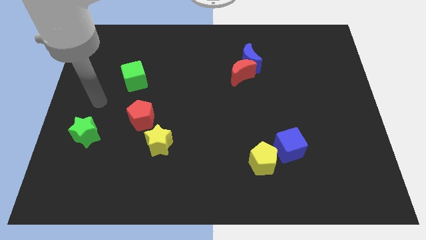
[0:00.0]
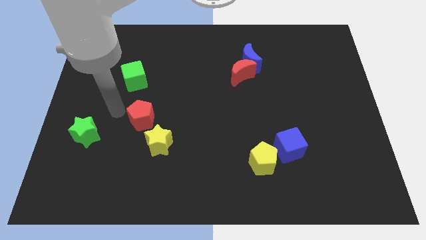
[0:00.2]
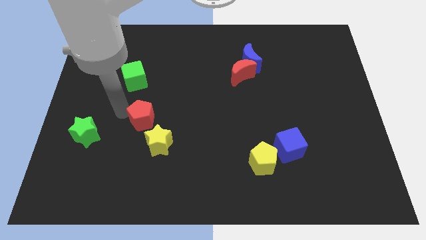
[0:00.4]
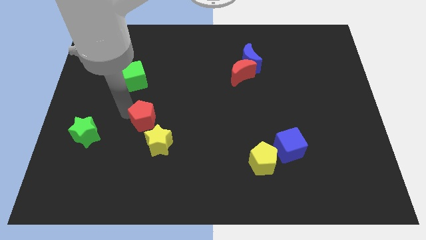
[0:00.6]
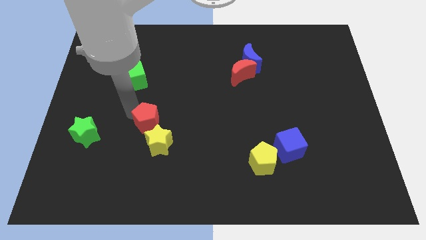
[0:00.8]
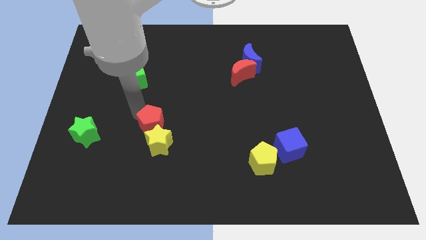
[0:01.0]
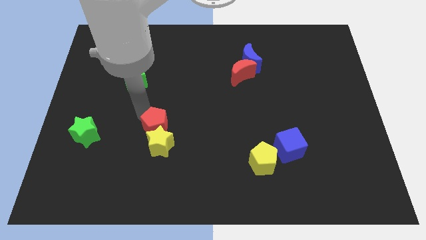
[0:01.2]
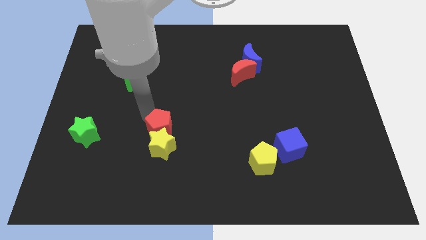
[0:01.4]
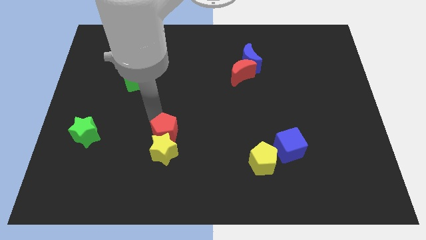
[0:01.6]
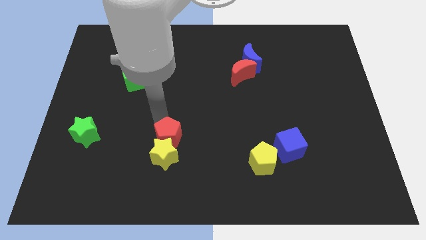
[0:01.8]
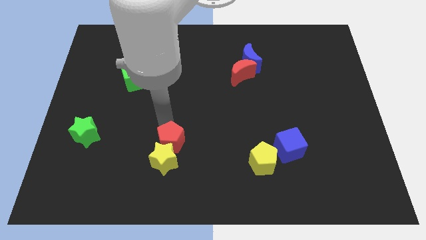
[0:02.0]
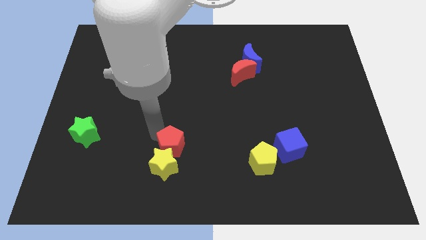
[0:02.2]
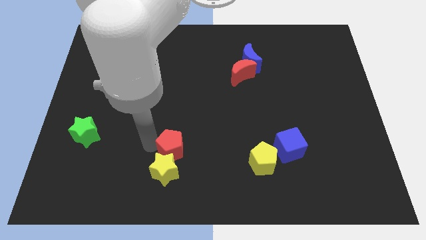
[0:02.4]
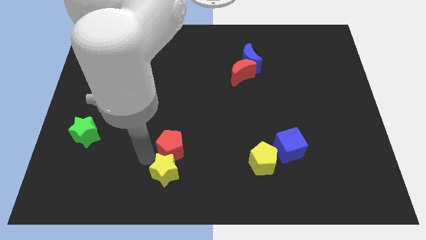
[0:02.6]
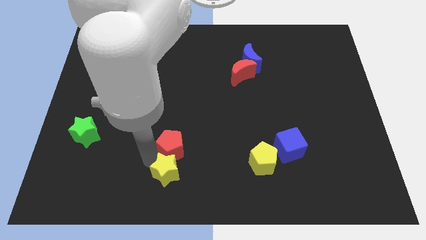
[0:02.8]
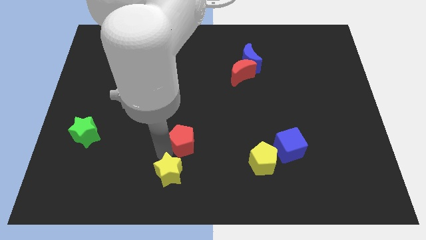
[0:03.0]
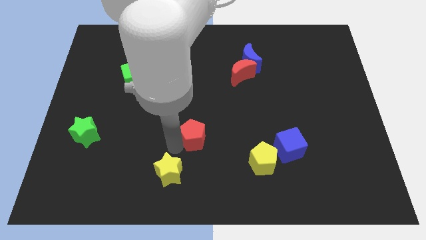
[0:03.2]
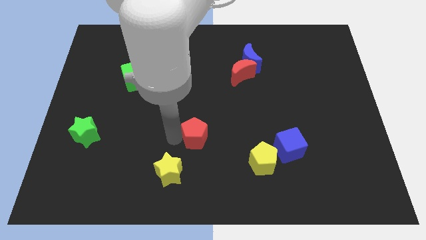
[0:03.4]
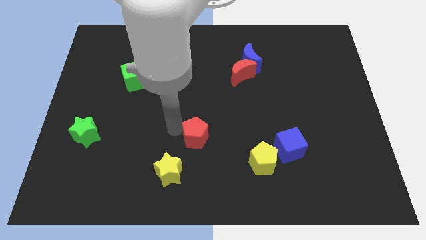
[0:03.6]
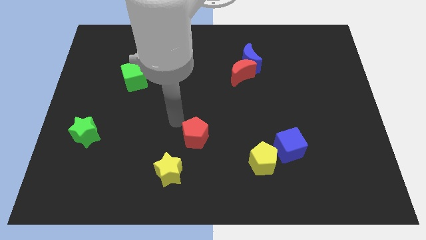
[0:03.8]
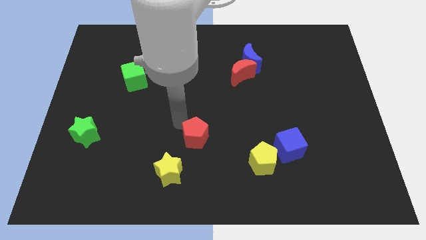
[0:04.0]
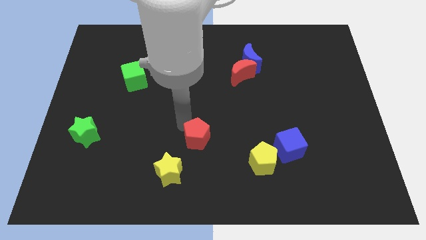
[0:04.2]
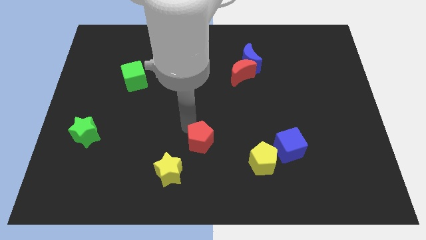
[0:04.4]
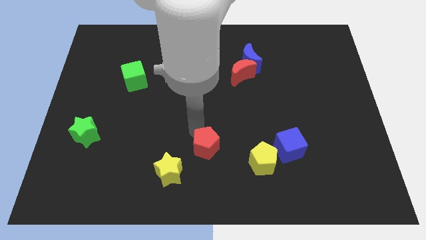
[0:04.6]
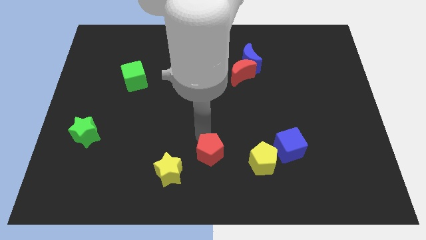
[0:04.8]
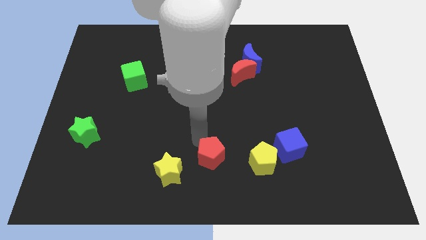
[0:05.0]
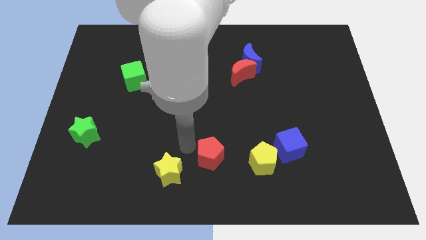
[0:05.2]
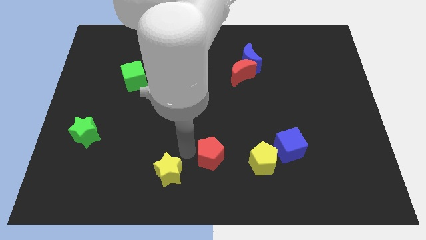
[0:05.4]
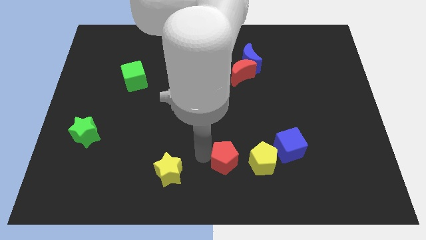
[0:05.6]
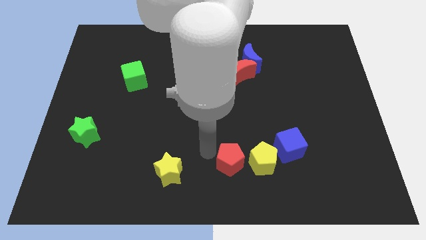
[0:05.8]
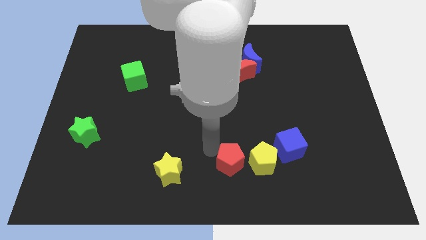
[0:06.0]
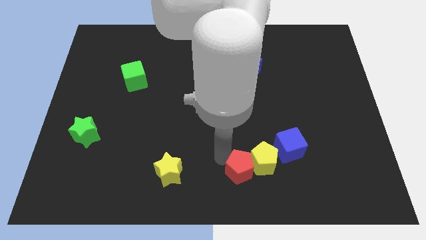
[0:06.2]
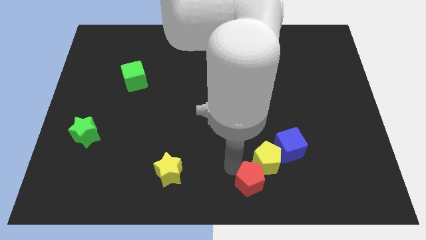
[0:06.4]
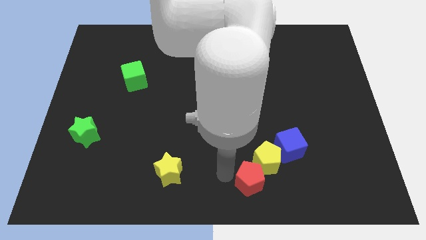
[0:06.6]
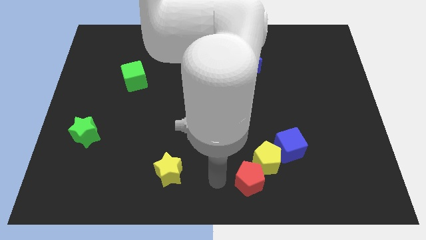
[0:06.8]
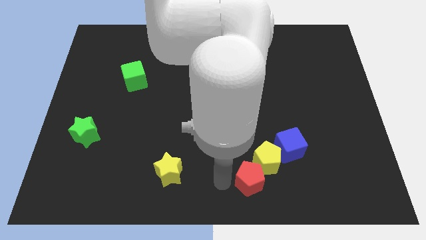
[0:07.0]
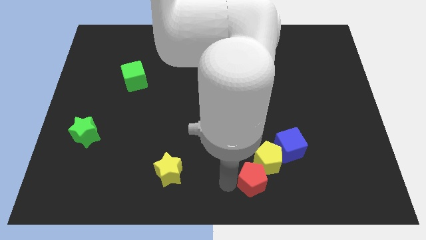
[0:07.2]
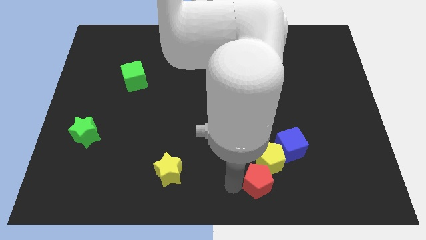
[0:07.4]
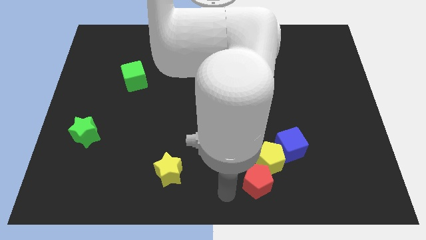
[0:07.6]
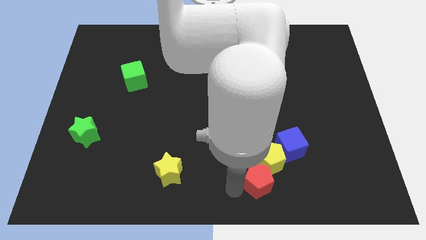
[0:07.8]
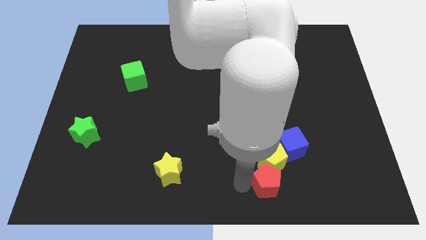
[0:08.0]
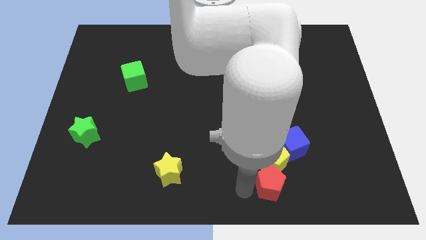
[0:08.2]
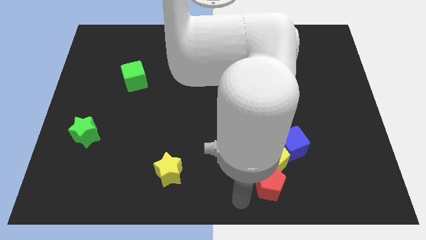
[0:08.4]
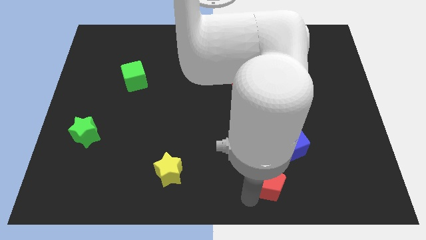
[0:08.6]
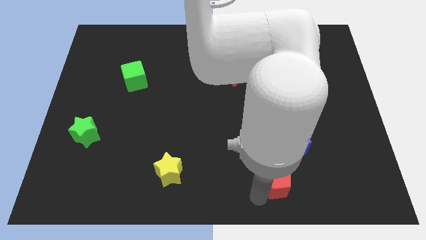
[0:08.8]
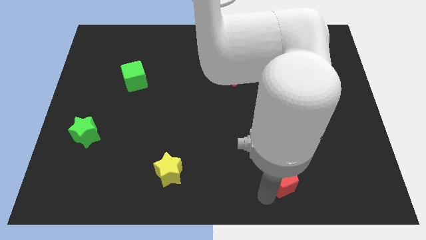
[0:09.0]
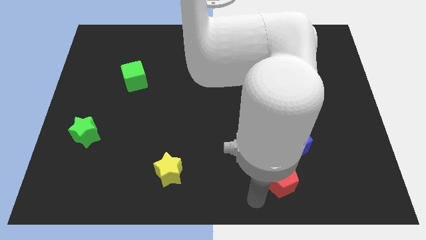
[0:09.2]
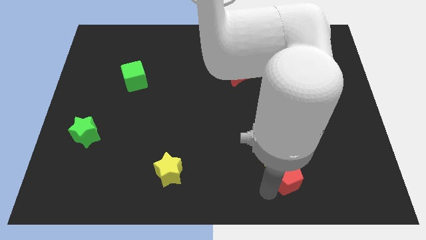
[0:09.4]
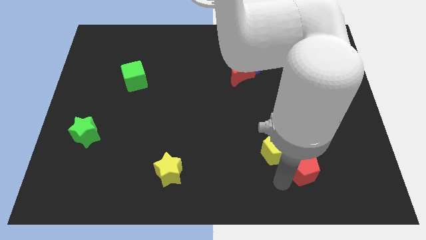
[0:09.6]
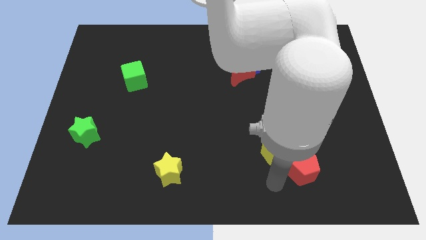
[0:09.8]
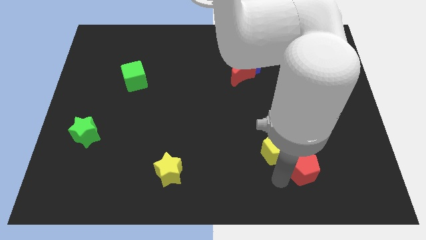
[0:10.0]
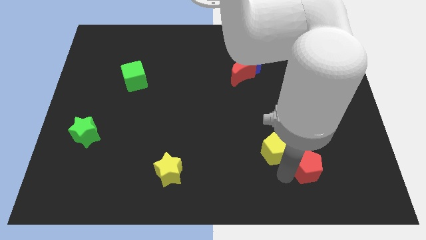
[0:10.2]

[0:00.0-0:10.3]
slide the red pentagon to the bottom right side of the blue cube

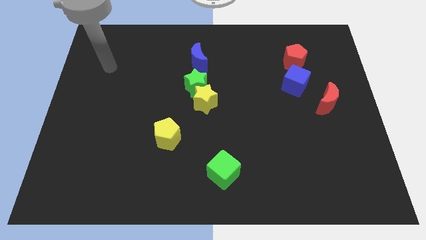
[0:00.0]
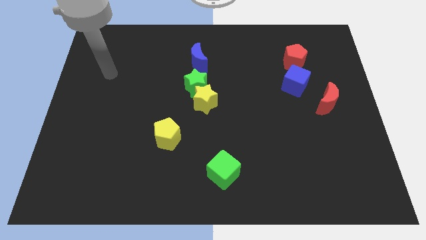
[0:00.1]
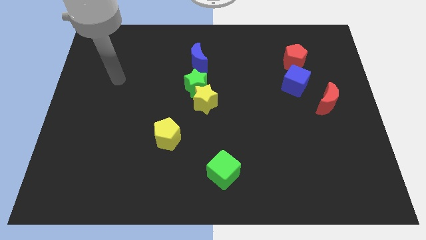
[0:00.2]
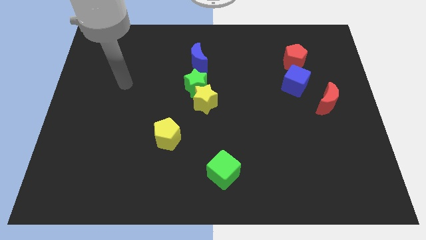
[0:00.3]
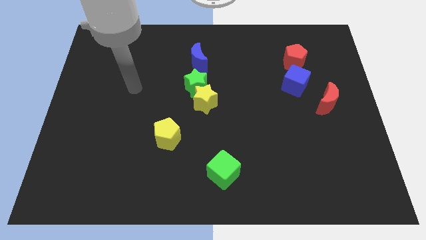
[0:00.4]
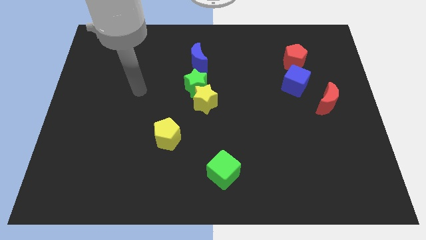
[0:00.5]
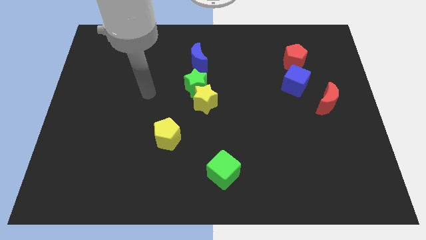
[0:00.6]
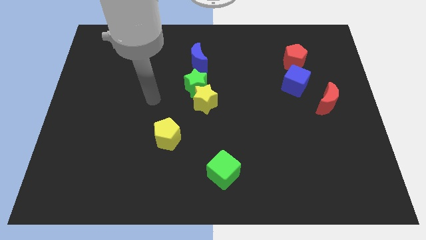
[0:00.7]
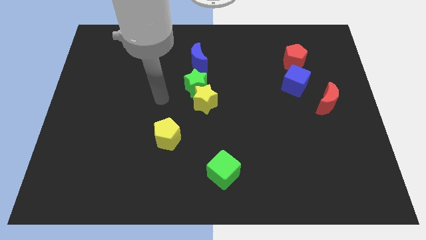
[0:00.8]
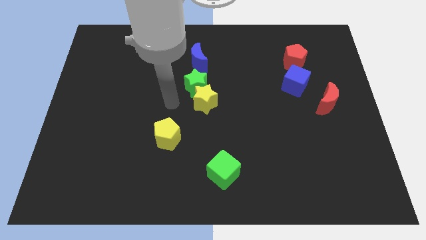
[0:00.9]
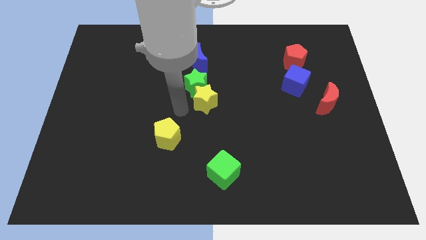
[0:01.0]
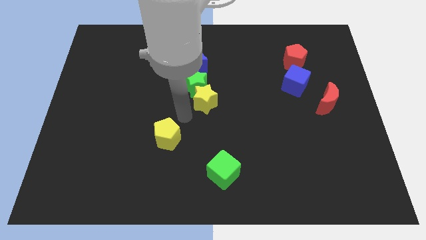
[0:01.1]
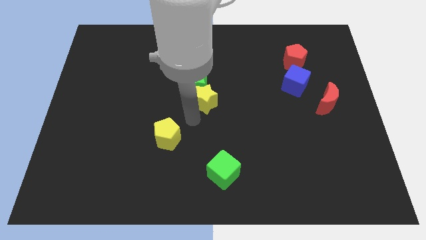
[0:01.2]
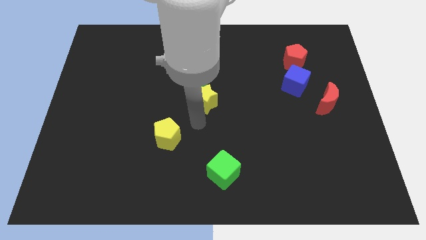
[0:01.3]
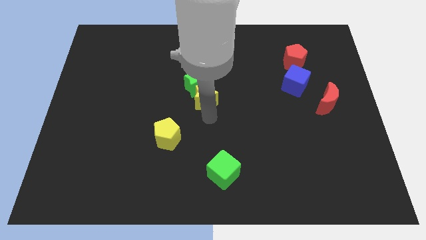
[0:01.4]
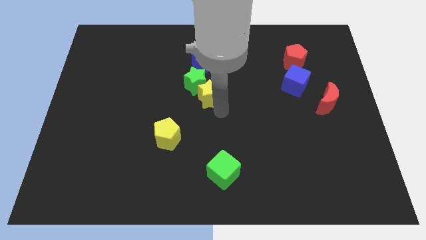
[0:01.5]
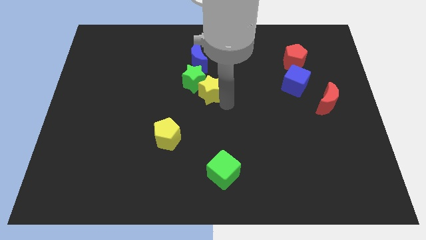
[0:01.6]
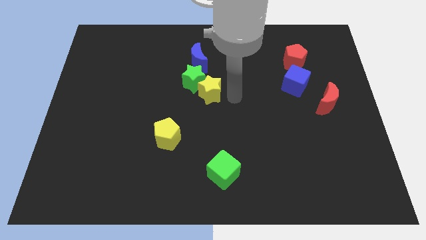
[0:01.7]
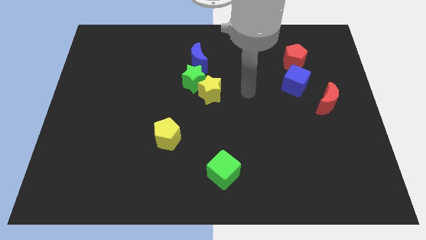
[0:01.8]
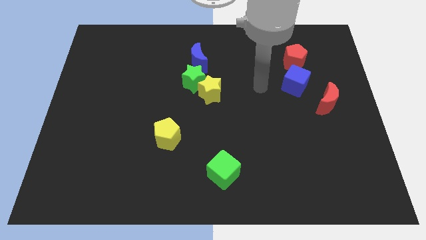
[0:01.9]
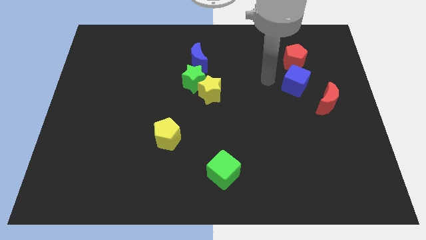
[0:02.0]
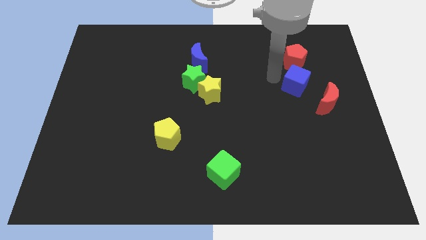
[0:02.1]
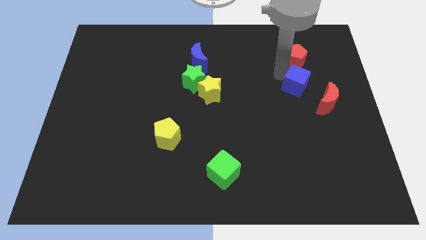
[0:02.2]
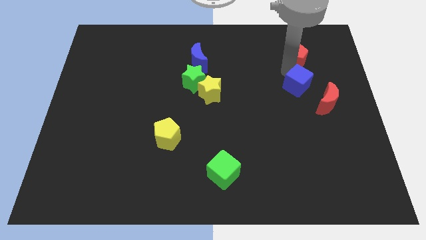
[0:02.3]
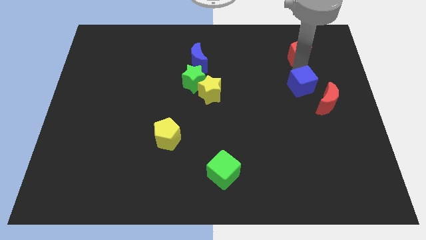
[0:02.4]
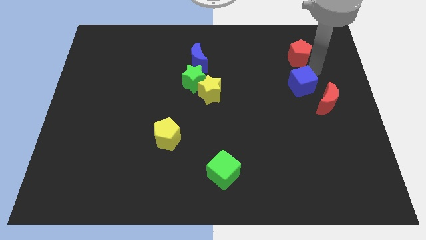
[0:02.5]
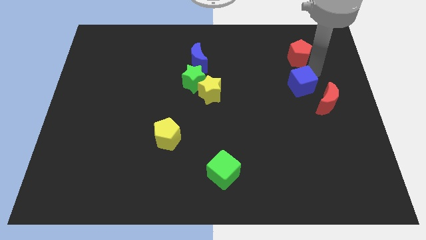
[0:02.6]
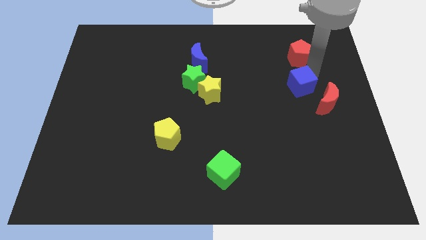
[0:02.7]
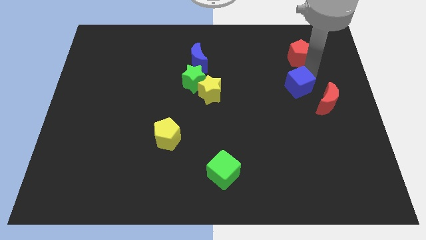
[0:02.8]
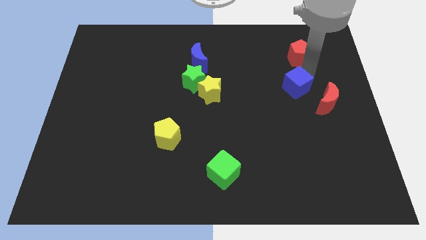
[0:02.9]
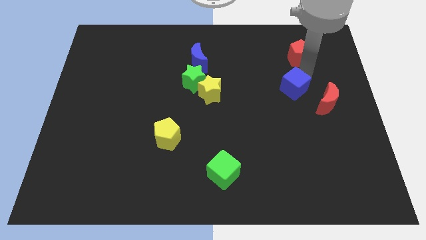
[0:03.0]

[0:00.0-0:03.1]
put the blue cube just left of the red moon
